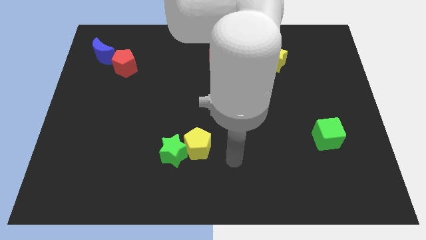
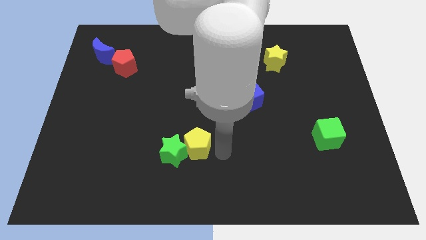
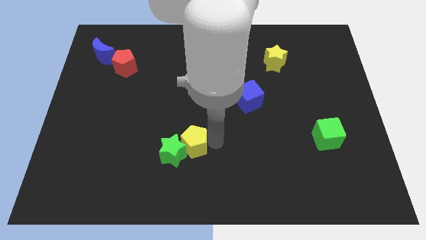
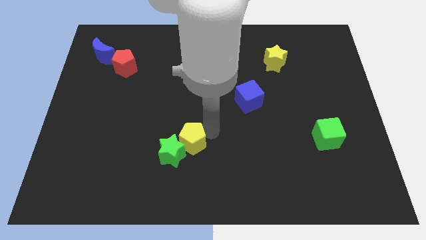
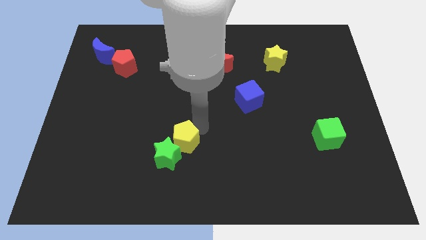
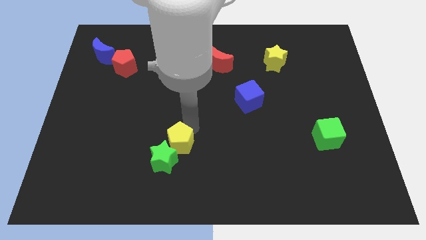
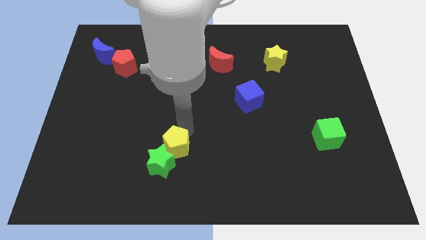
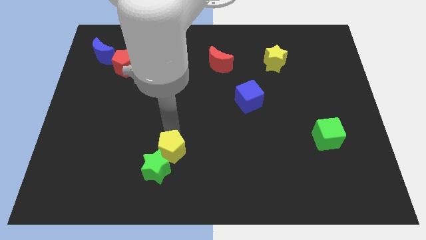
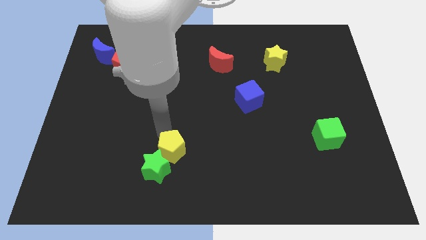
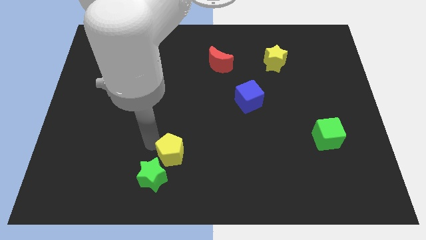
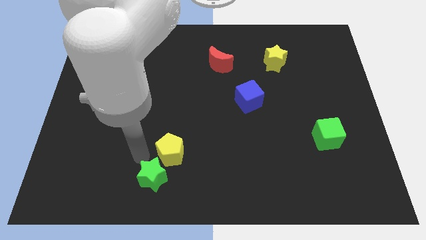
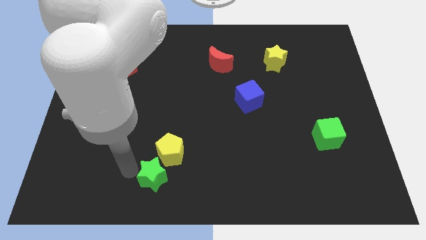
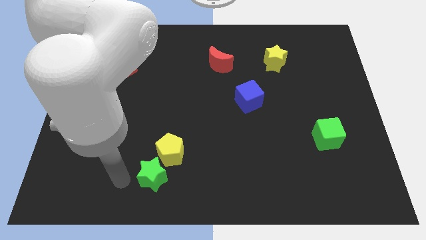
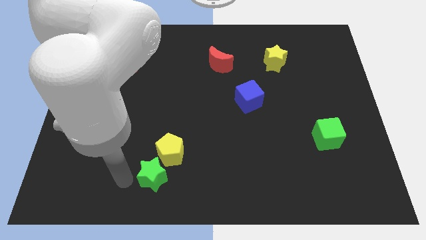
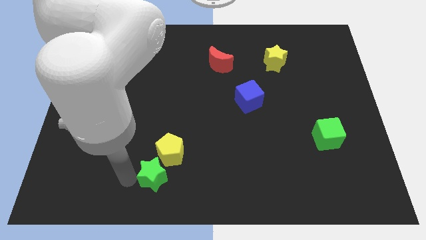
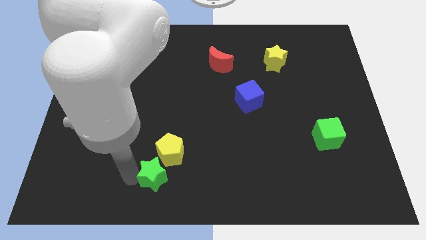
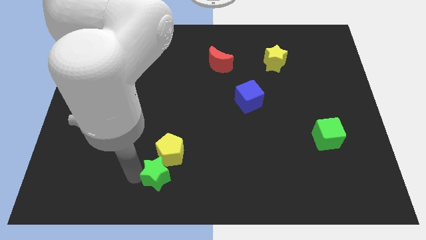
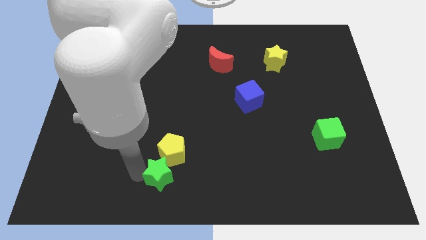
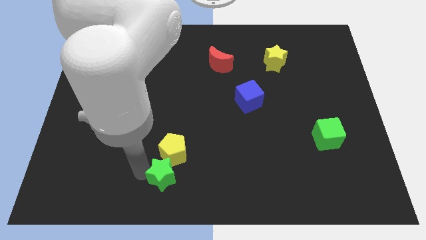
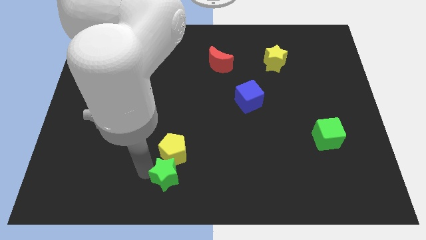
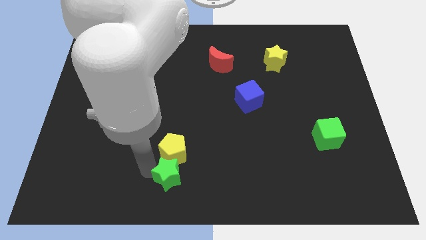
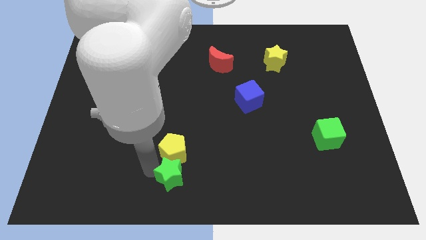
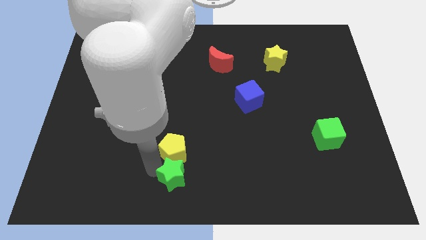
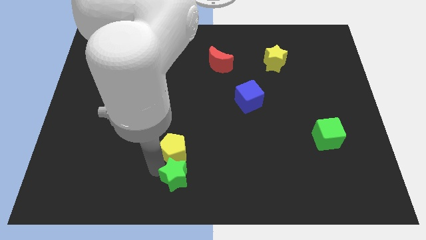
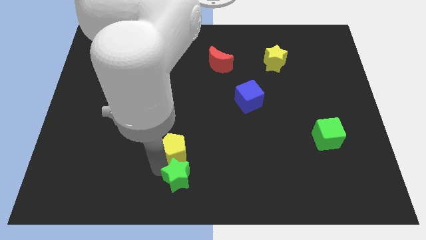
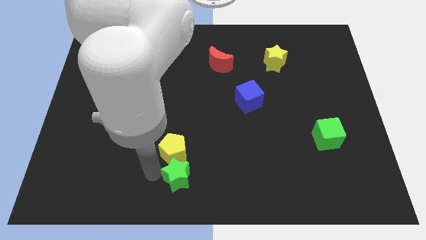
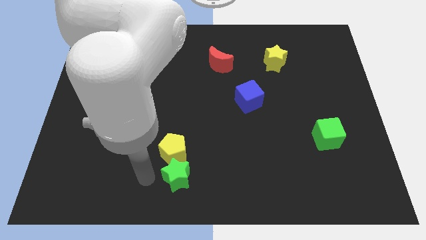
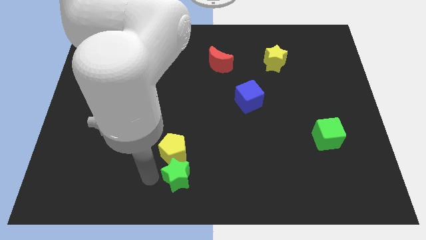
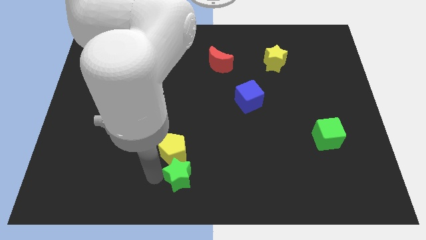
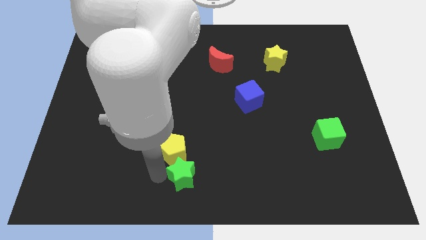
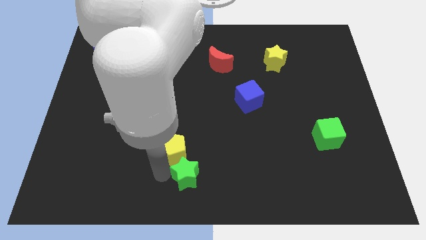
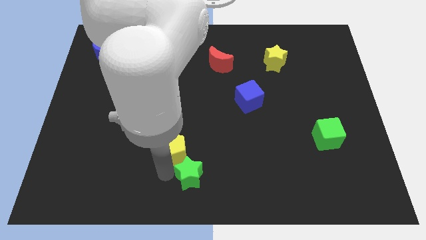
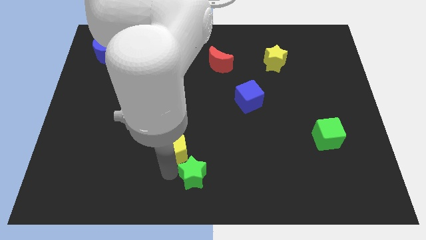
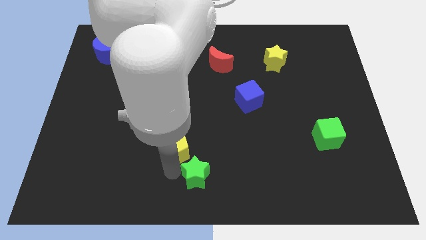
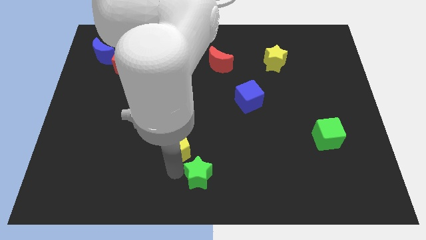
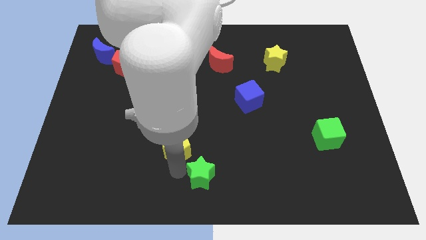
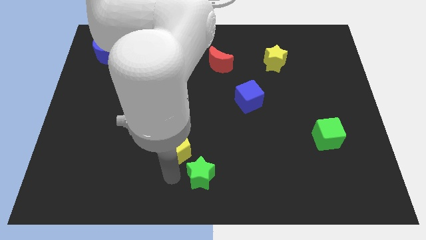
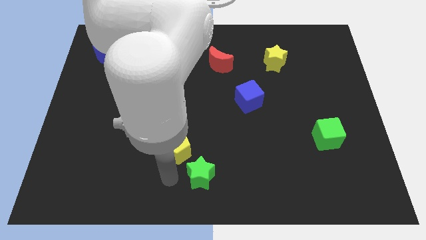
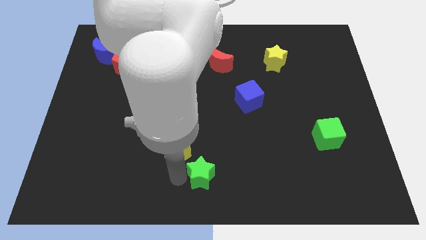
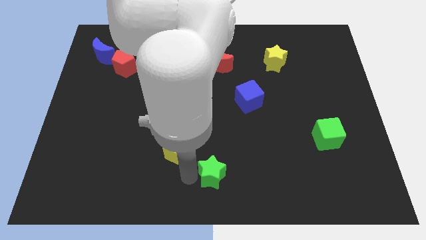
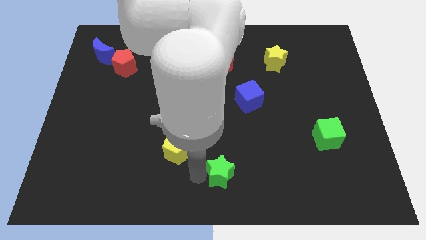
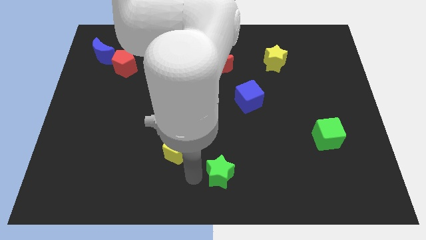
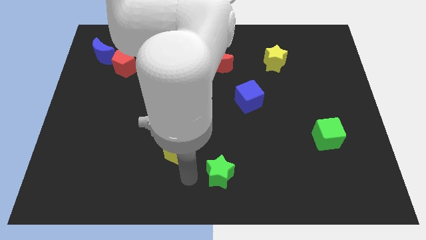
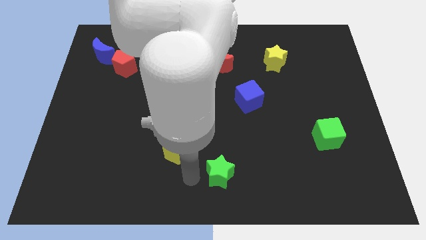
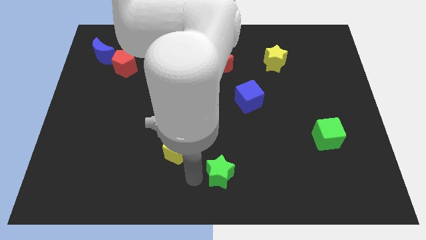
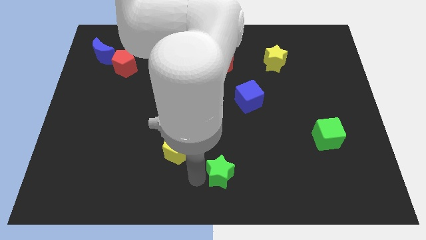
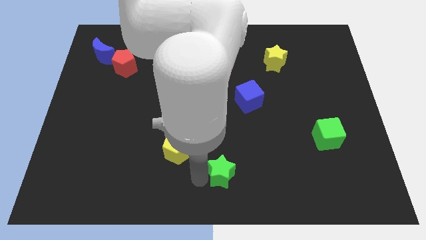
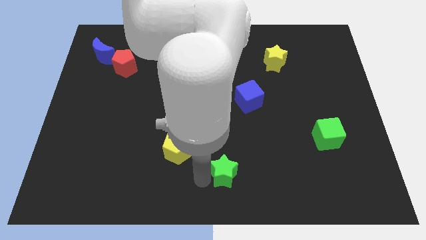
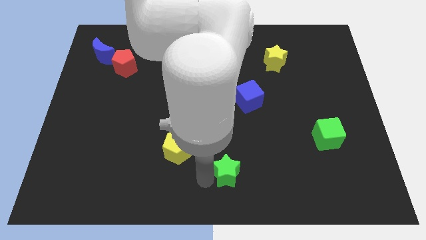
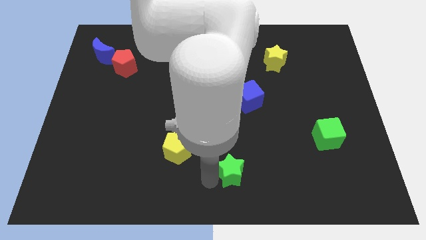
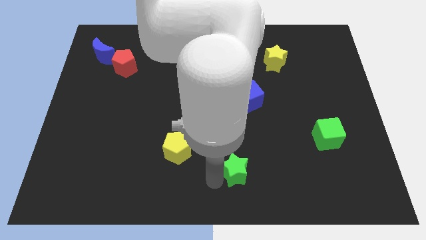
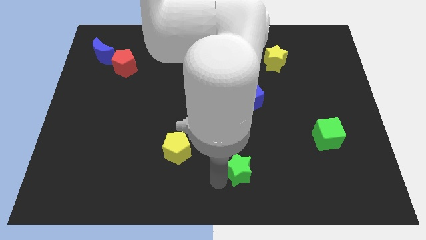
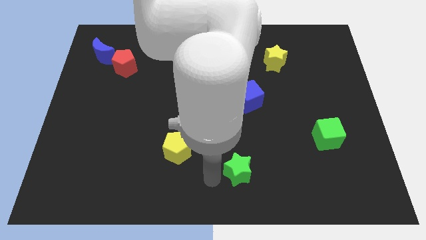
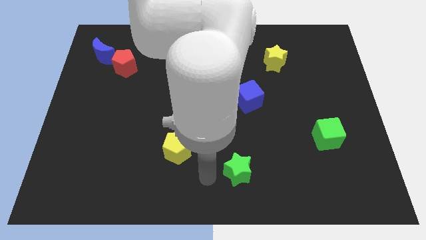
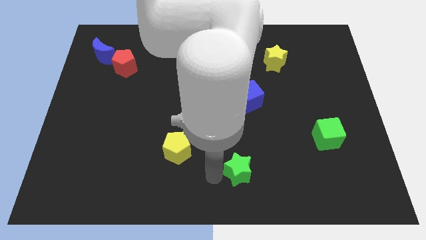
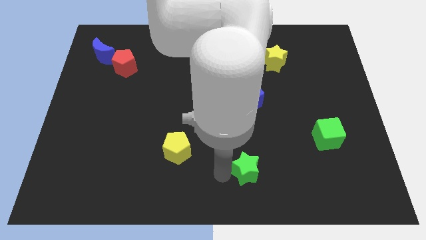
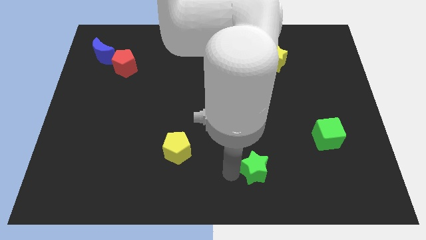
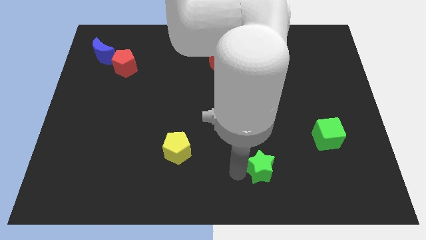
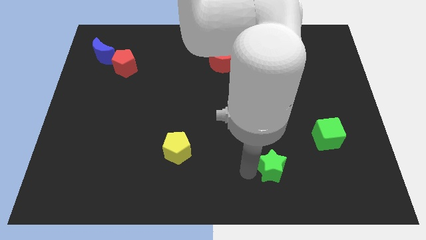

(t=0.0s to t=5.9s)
move the green star right

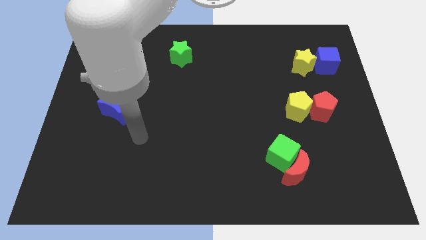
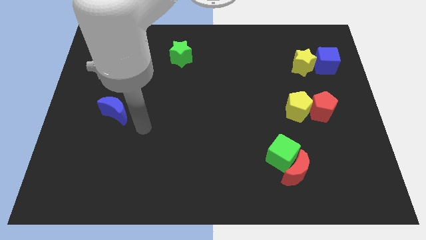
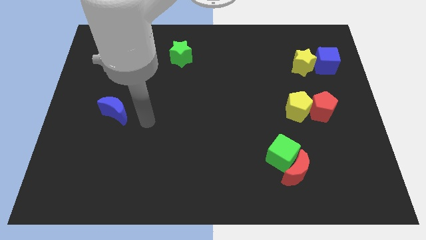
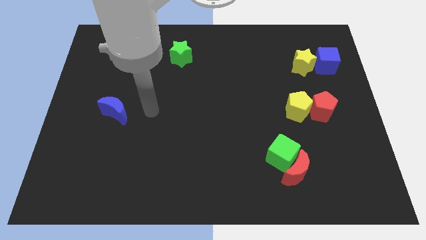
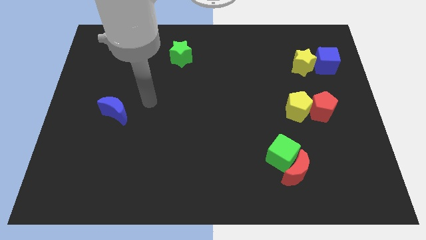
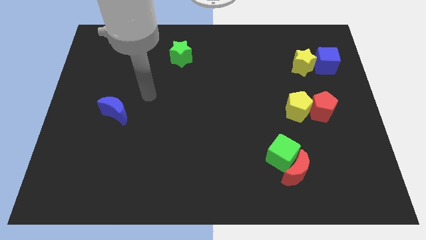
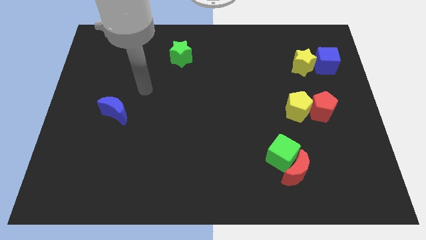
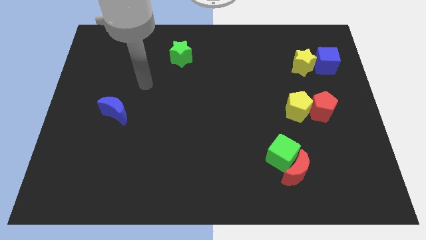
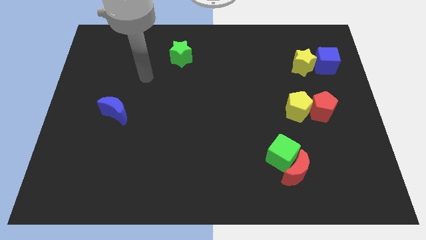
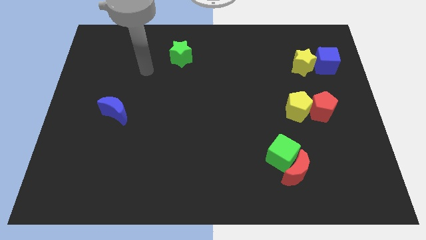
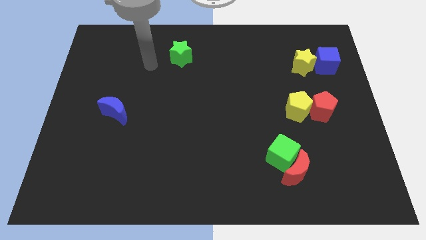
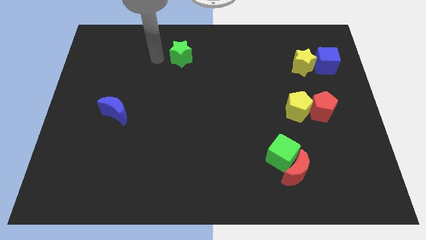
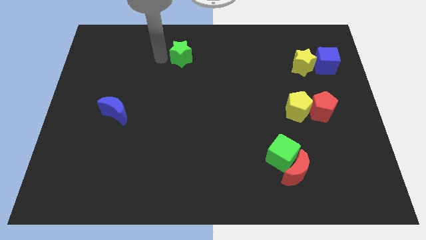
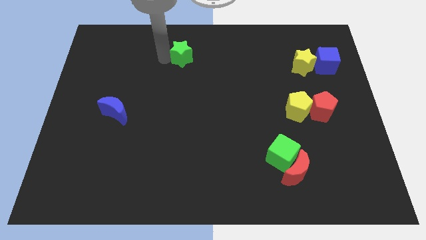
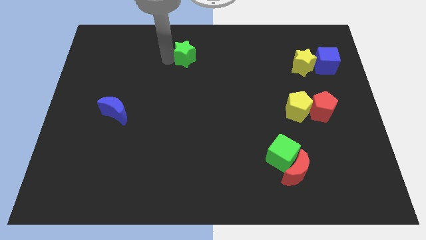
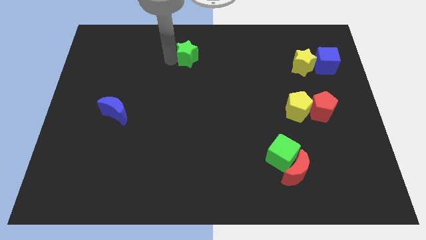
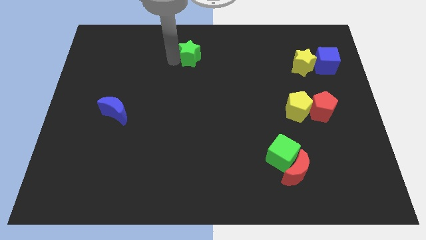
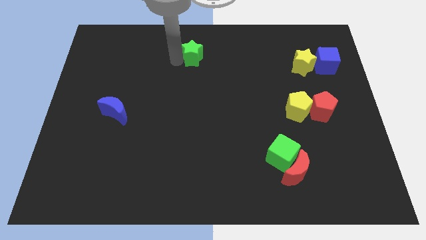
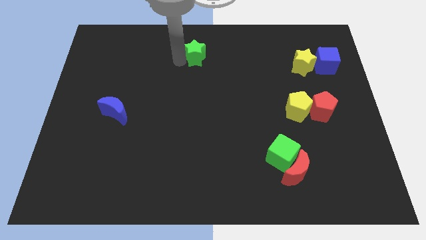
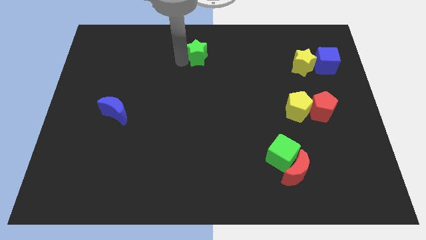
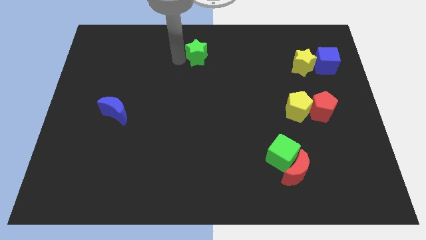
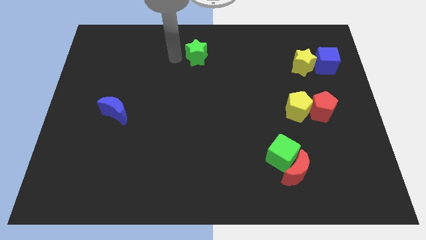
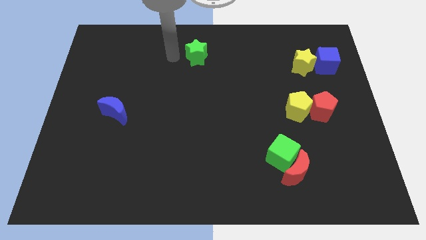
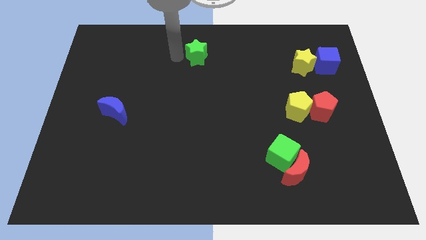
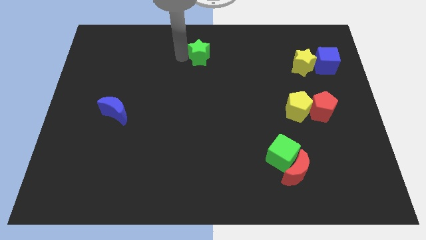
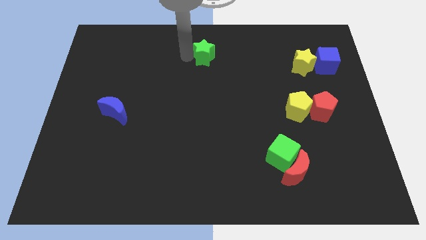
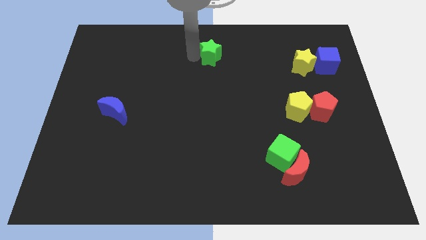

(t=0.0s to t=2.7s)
push the green star to the right somewhat

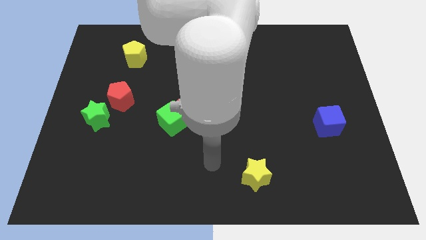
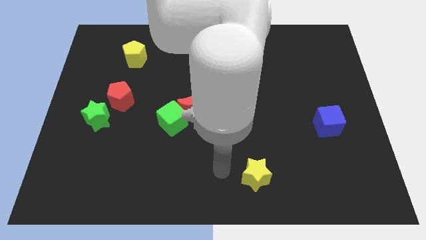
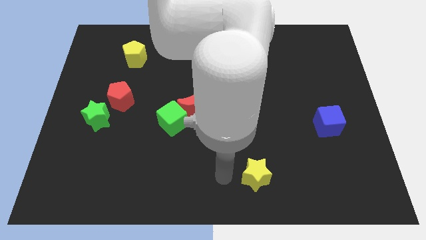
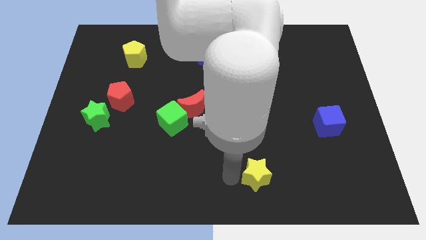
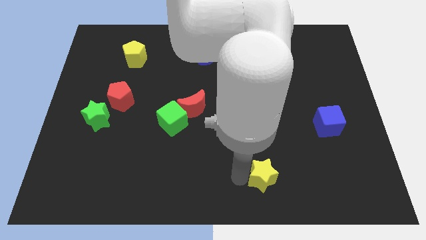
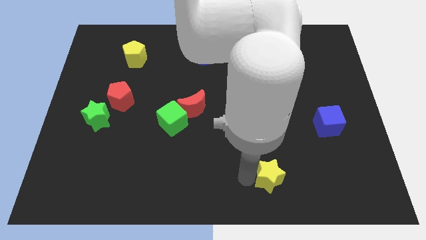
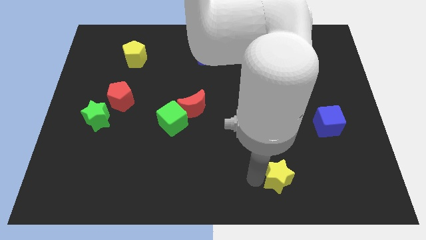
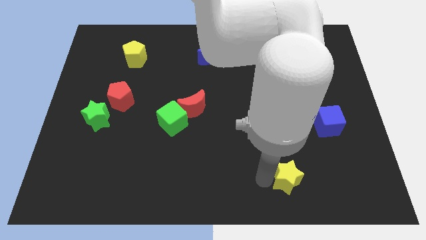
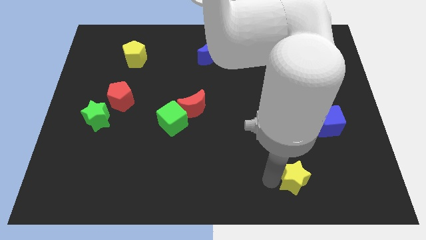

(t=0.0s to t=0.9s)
slightly push the yellow star to the right
